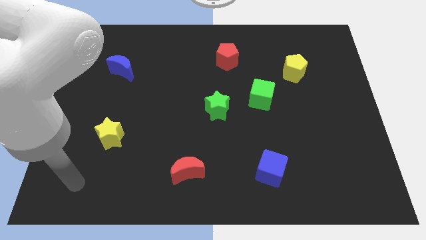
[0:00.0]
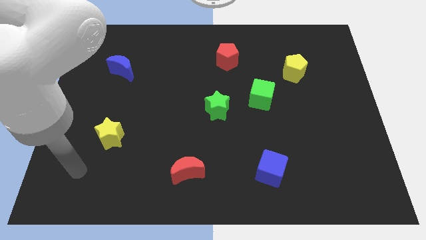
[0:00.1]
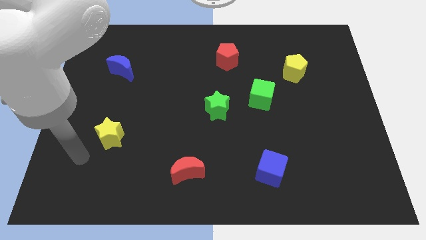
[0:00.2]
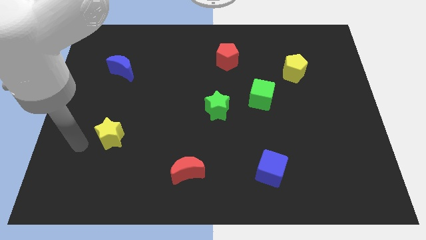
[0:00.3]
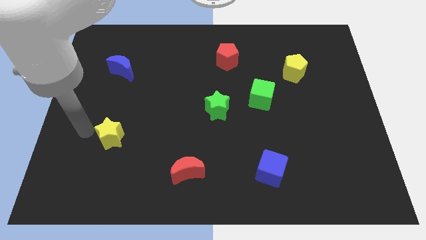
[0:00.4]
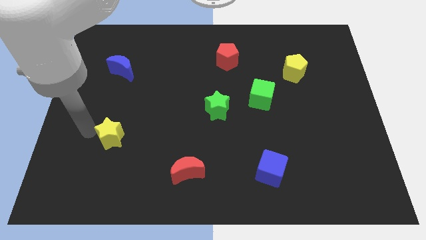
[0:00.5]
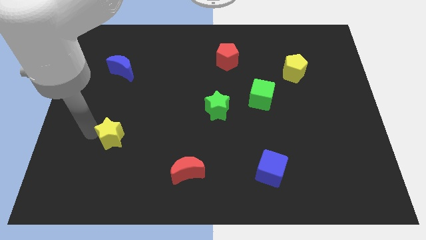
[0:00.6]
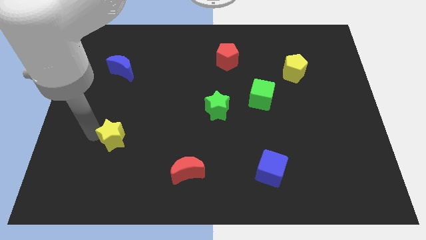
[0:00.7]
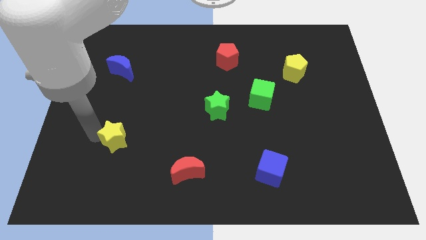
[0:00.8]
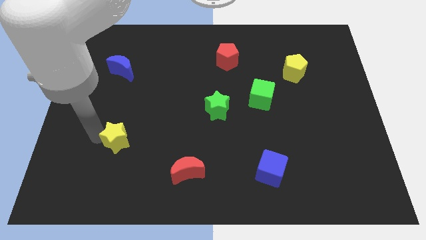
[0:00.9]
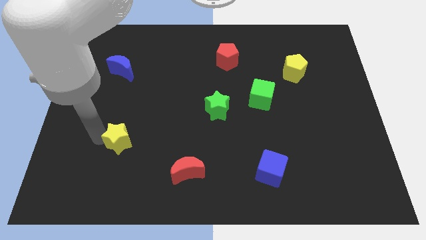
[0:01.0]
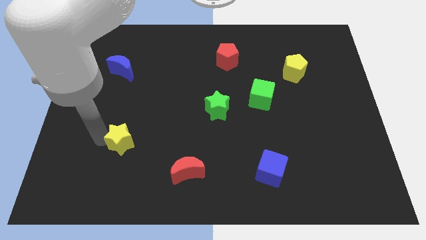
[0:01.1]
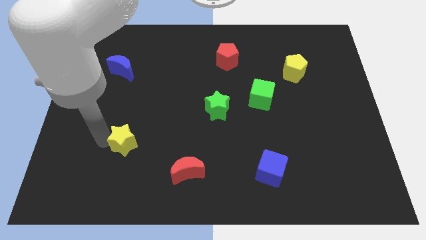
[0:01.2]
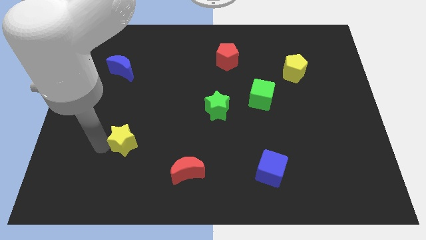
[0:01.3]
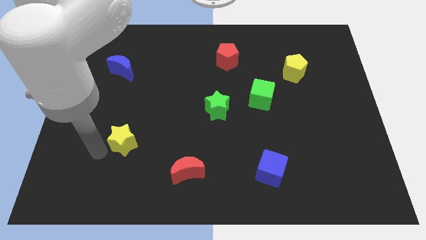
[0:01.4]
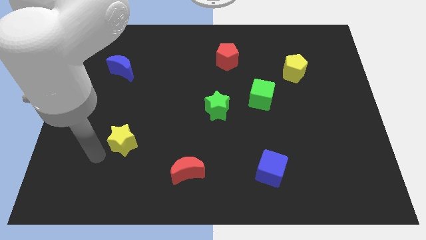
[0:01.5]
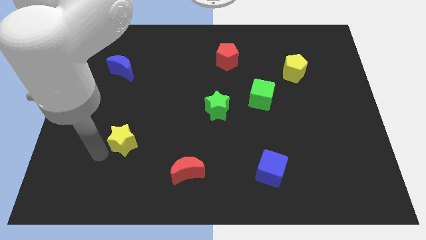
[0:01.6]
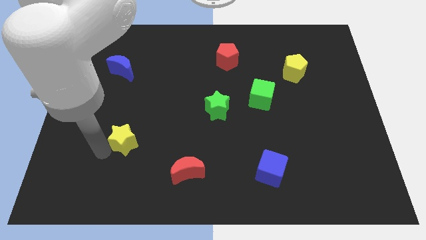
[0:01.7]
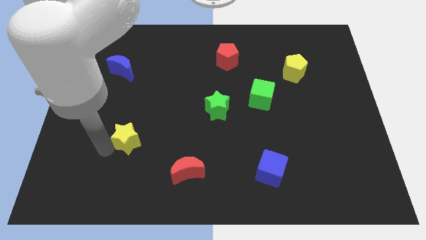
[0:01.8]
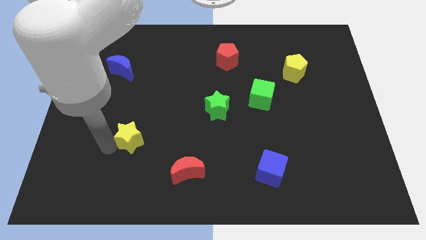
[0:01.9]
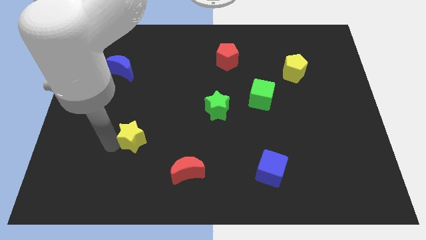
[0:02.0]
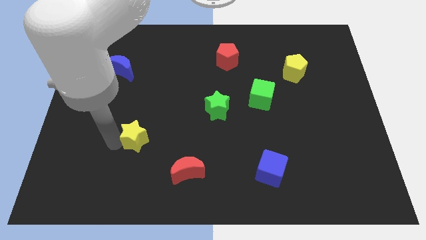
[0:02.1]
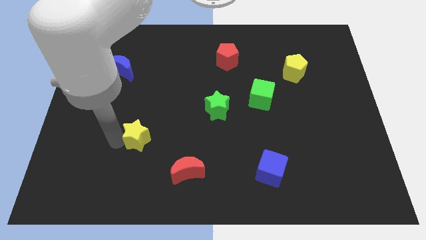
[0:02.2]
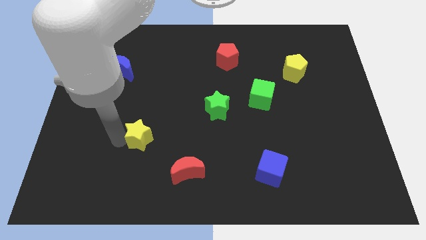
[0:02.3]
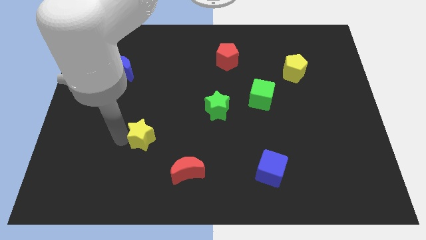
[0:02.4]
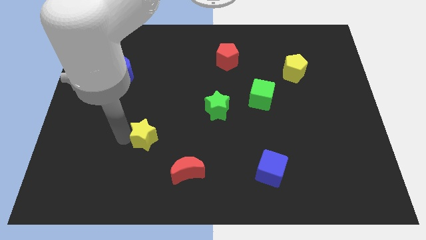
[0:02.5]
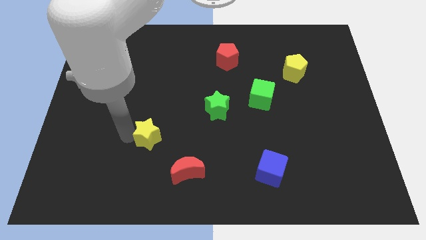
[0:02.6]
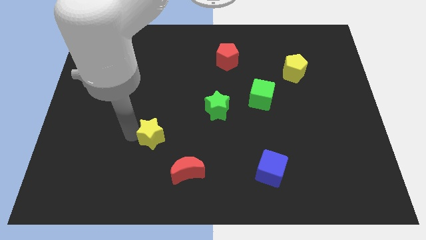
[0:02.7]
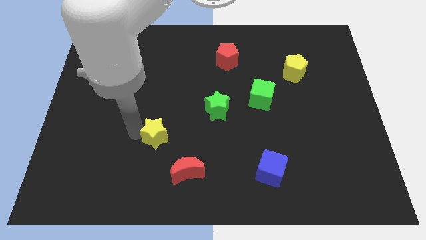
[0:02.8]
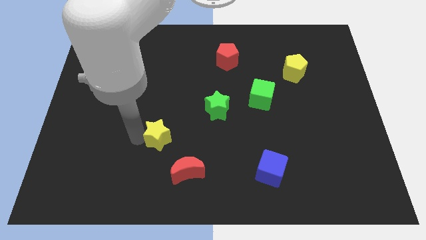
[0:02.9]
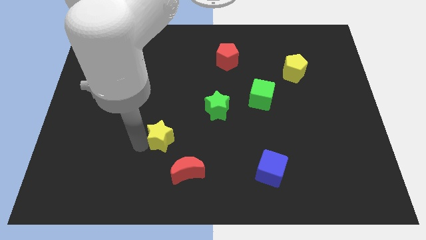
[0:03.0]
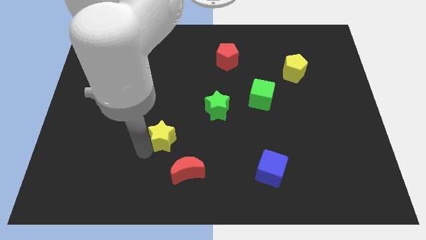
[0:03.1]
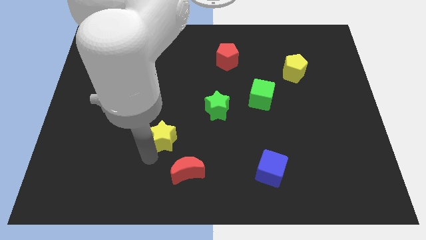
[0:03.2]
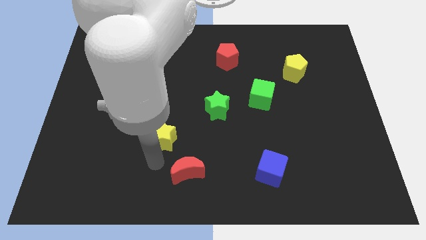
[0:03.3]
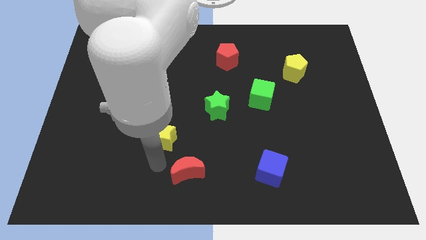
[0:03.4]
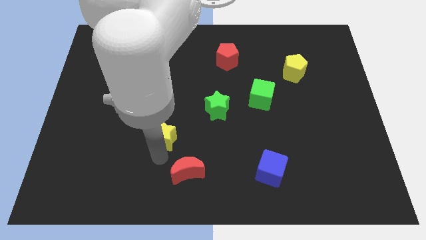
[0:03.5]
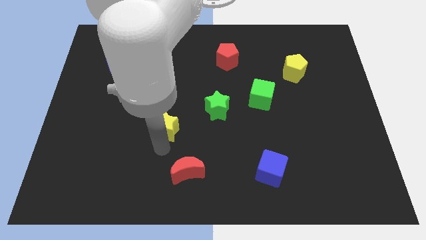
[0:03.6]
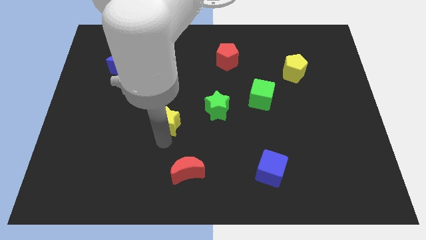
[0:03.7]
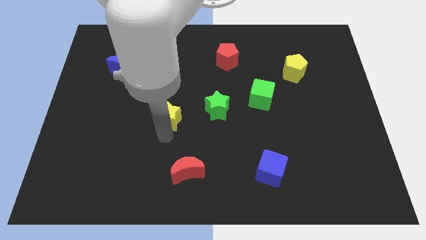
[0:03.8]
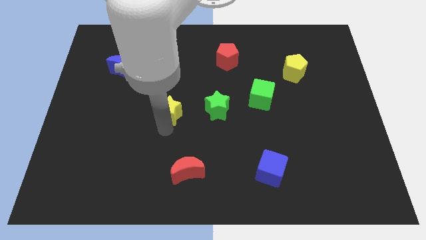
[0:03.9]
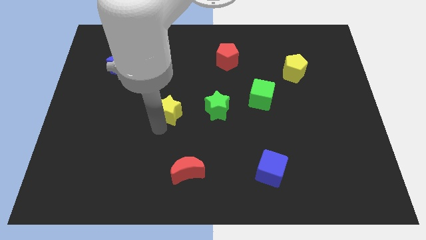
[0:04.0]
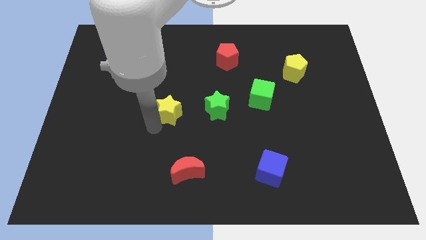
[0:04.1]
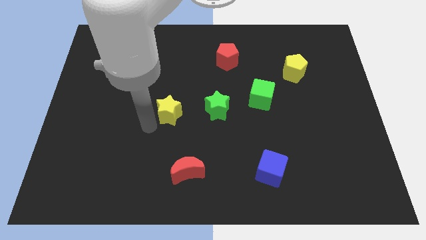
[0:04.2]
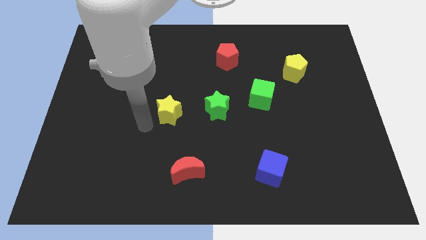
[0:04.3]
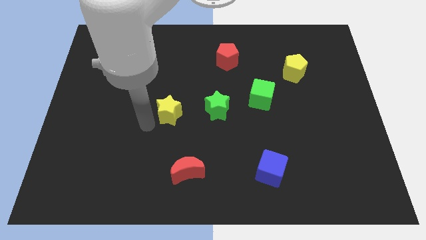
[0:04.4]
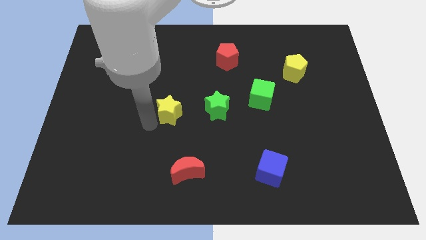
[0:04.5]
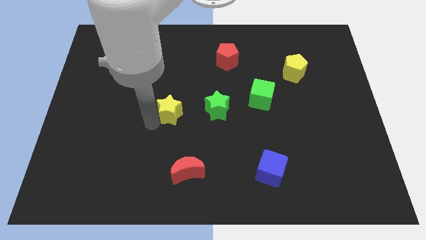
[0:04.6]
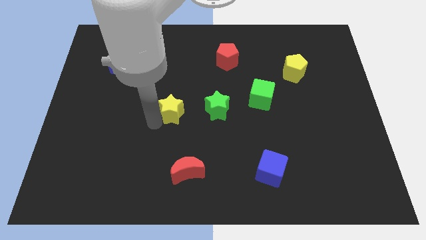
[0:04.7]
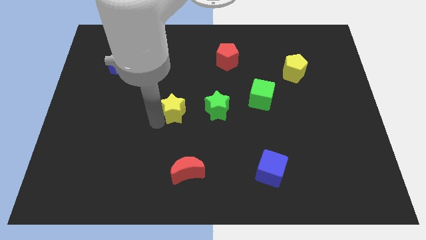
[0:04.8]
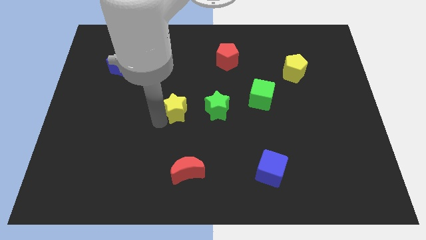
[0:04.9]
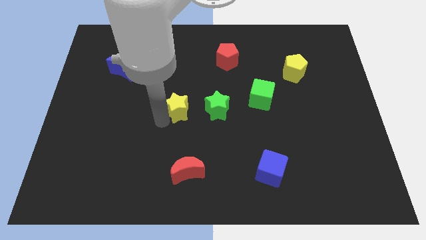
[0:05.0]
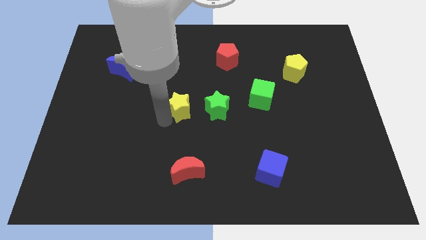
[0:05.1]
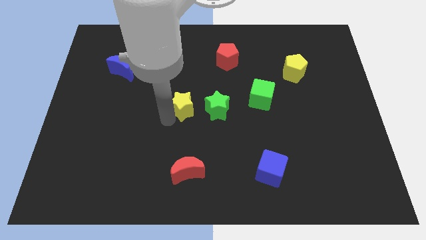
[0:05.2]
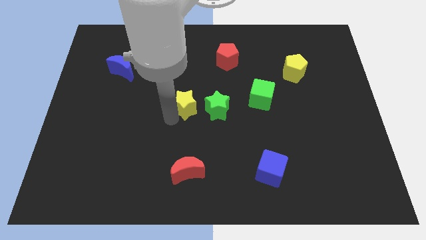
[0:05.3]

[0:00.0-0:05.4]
slide the yellow star diagonally up and to the left of the green star

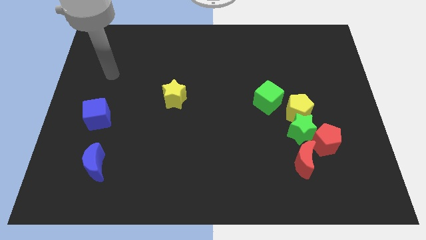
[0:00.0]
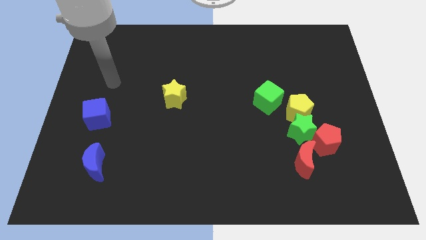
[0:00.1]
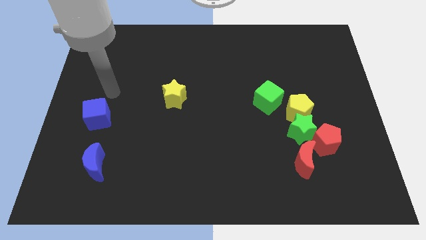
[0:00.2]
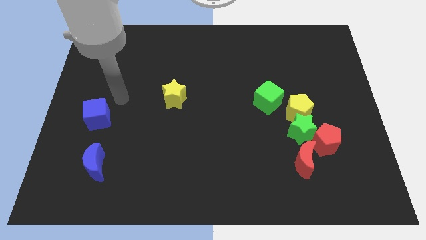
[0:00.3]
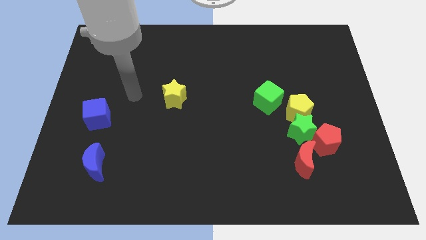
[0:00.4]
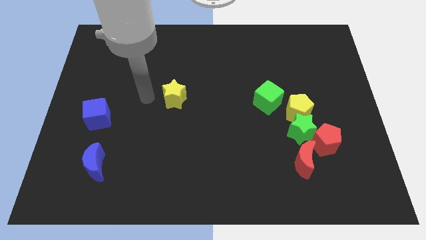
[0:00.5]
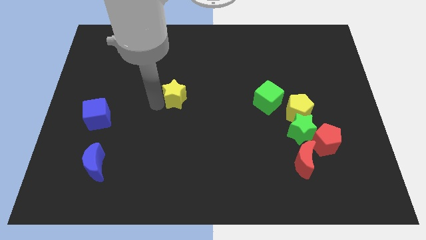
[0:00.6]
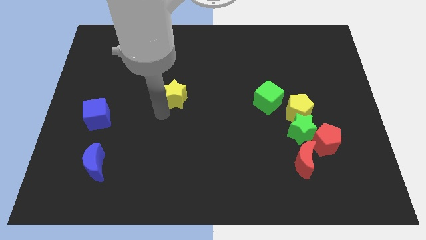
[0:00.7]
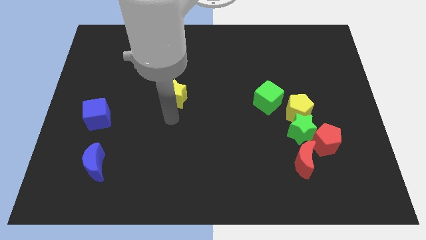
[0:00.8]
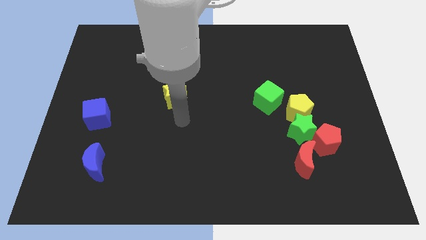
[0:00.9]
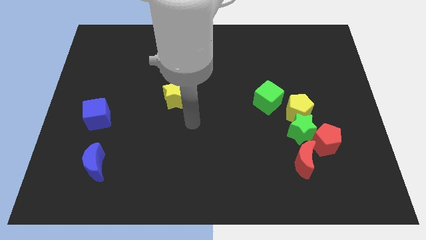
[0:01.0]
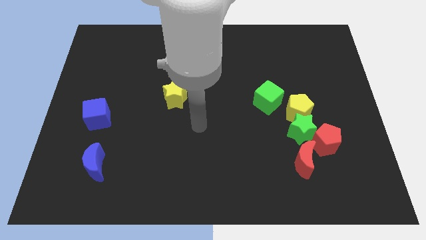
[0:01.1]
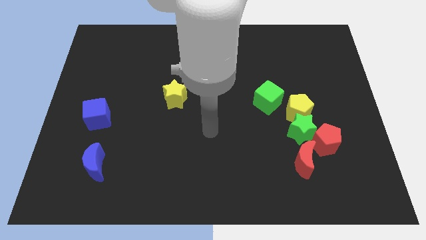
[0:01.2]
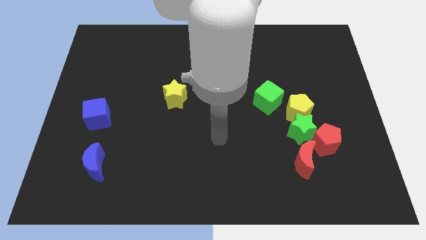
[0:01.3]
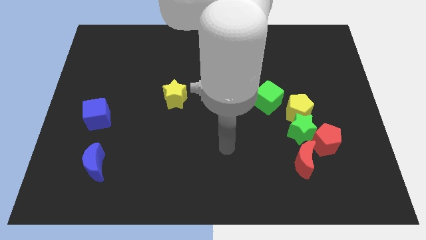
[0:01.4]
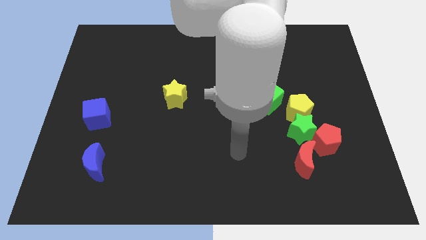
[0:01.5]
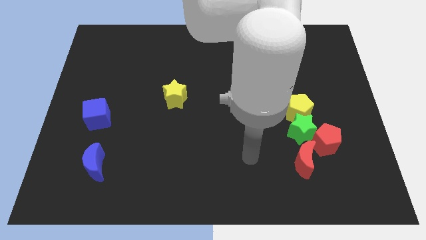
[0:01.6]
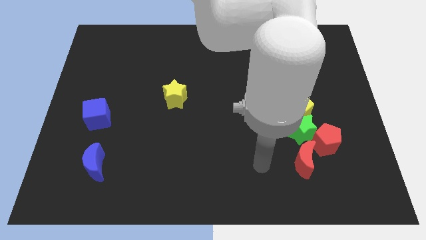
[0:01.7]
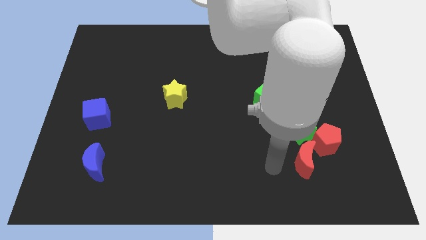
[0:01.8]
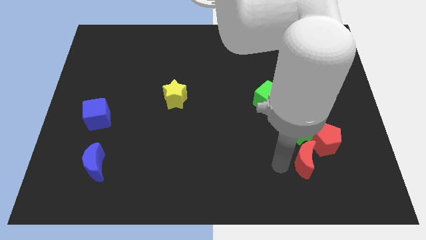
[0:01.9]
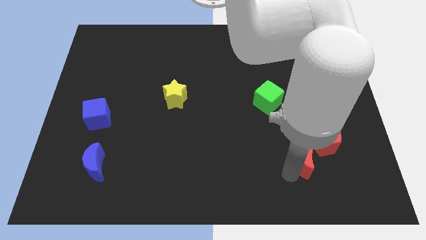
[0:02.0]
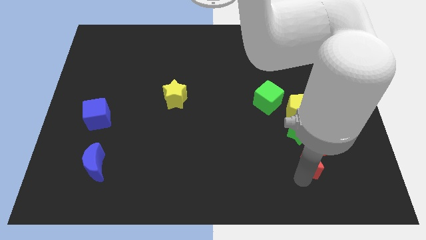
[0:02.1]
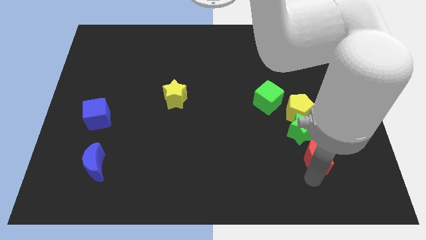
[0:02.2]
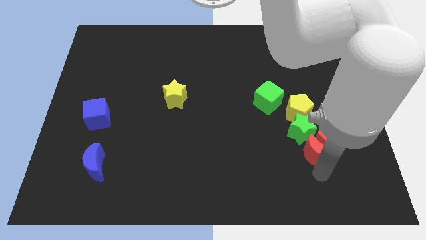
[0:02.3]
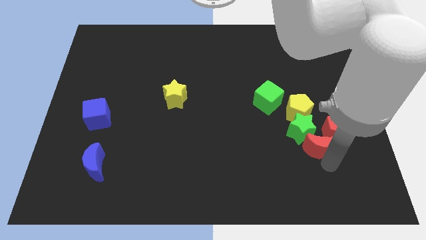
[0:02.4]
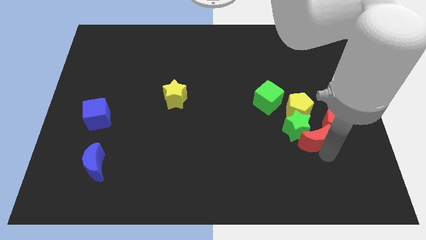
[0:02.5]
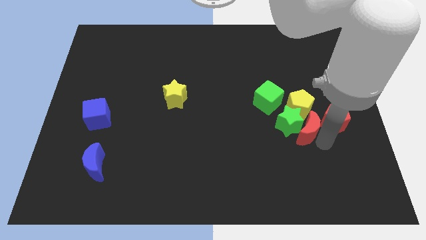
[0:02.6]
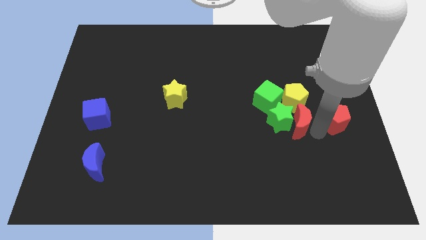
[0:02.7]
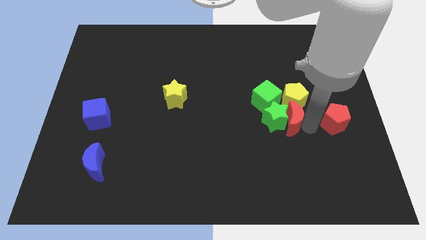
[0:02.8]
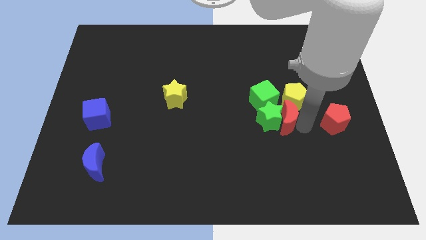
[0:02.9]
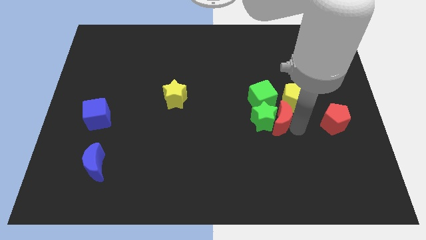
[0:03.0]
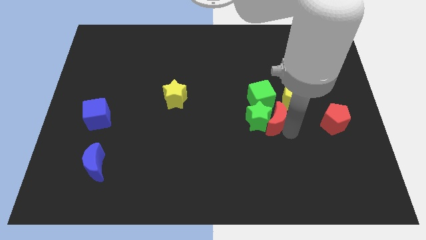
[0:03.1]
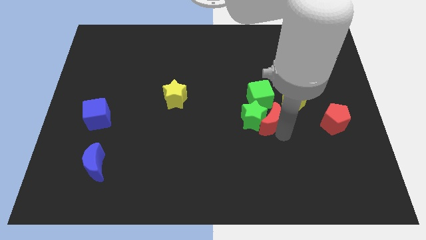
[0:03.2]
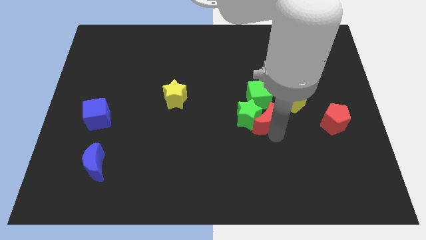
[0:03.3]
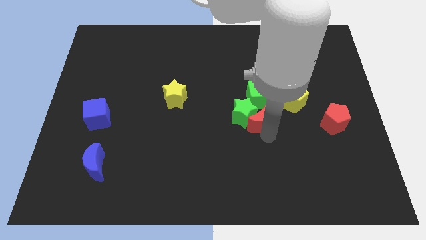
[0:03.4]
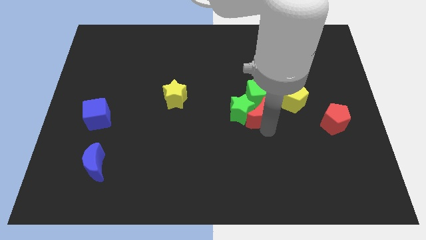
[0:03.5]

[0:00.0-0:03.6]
put the green star to the left side of the green cube
